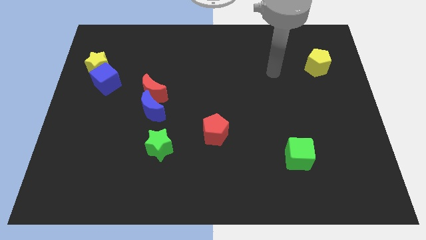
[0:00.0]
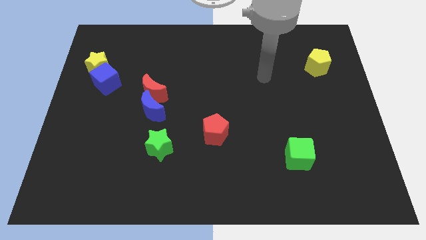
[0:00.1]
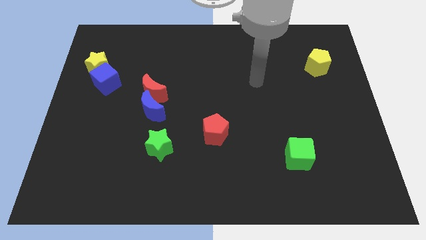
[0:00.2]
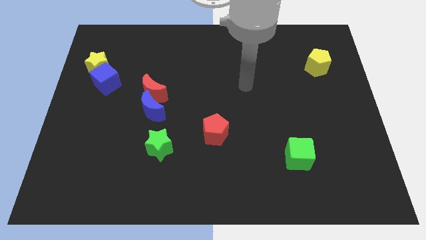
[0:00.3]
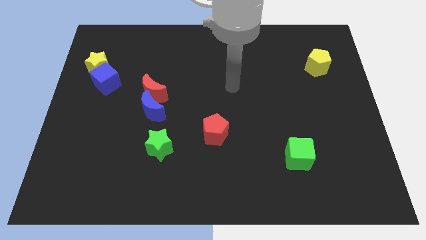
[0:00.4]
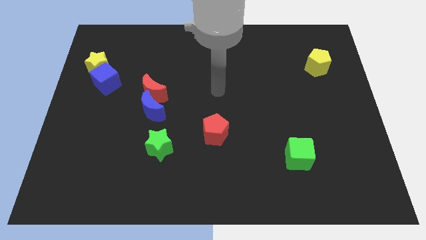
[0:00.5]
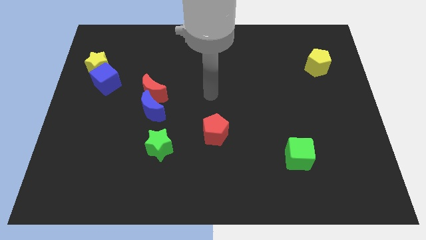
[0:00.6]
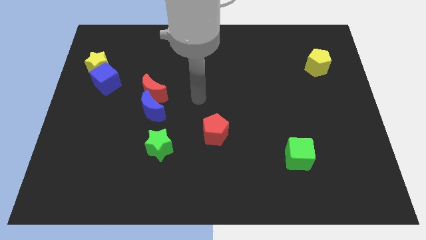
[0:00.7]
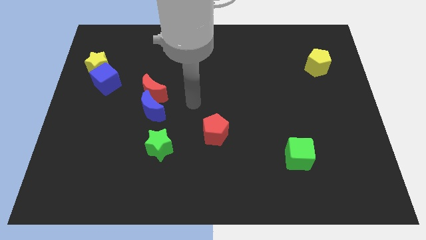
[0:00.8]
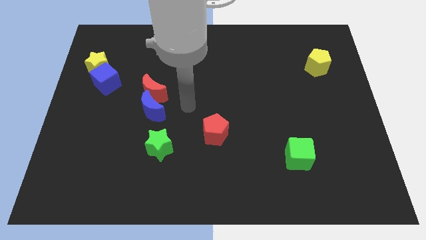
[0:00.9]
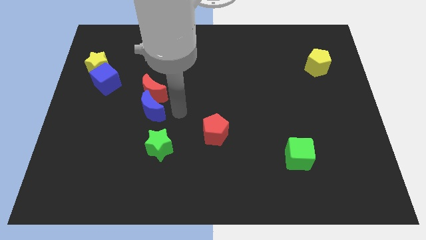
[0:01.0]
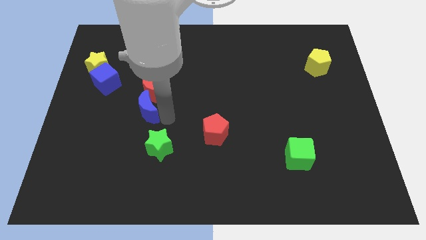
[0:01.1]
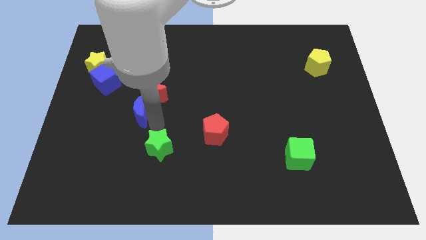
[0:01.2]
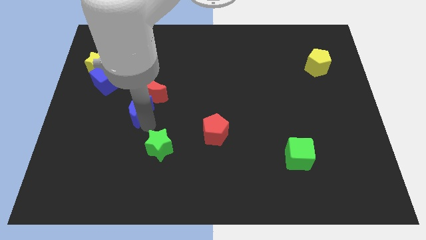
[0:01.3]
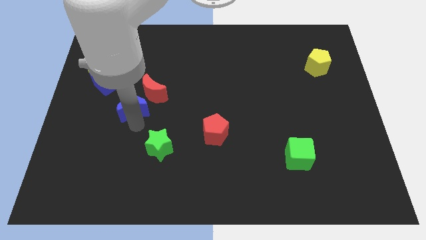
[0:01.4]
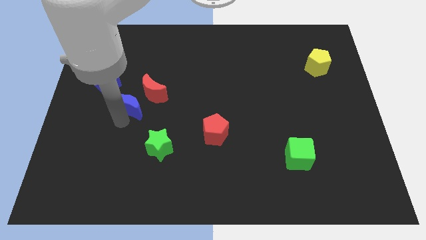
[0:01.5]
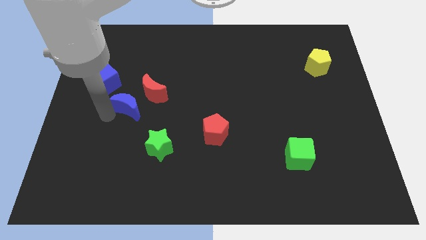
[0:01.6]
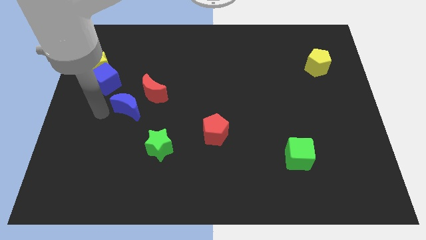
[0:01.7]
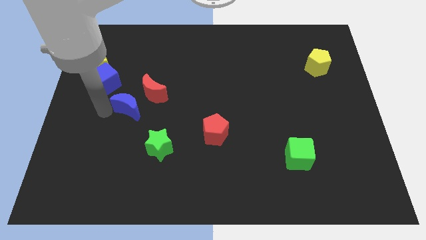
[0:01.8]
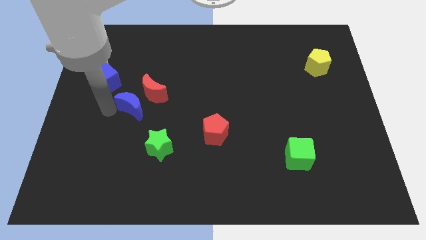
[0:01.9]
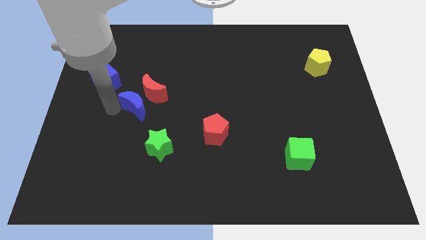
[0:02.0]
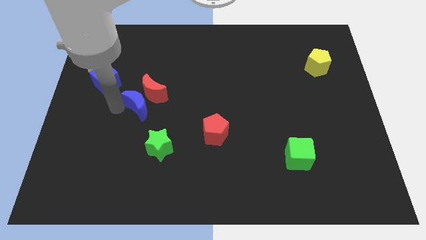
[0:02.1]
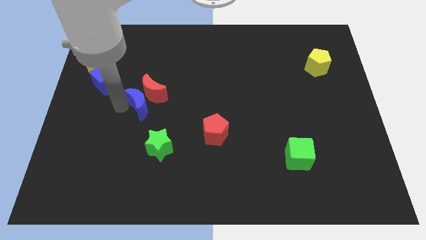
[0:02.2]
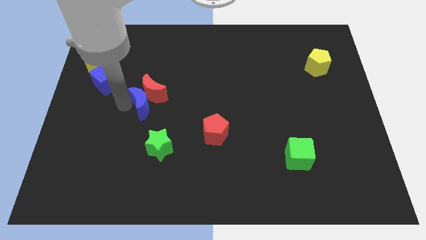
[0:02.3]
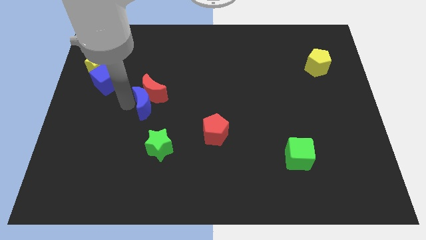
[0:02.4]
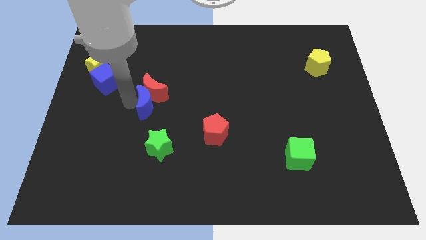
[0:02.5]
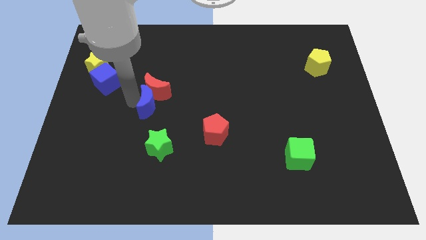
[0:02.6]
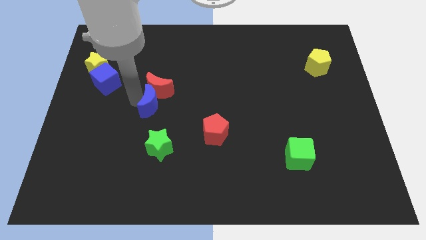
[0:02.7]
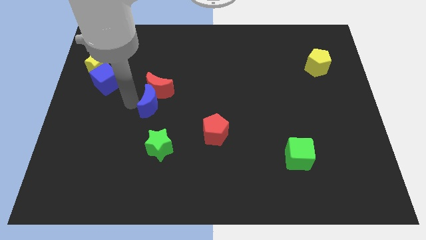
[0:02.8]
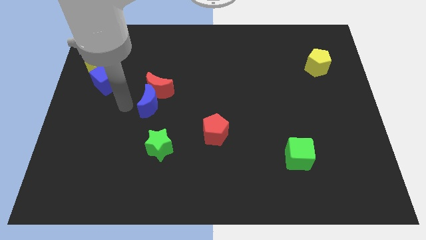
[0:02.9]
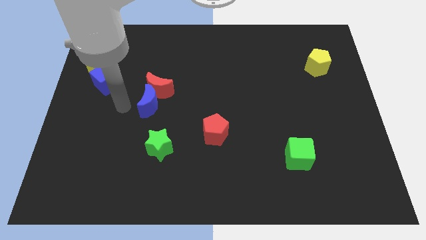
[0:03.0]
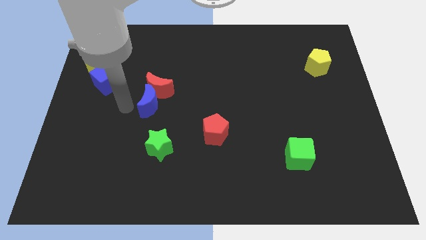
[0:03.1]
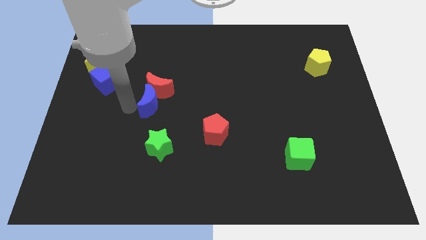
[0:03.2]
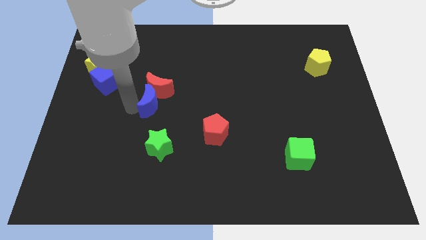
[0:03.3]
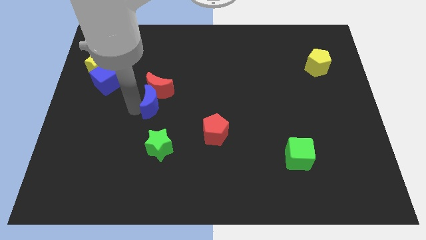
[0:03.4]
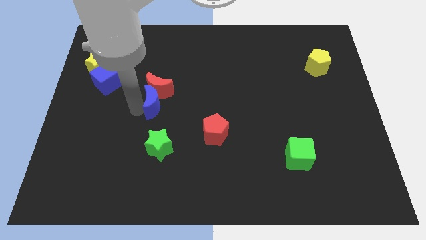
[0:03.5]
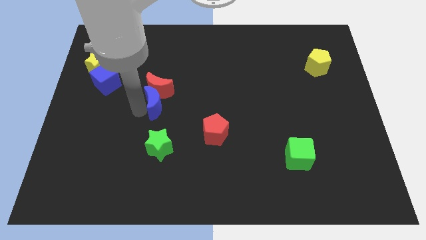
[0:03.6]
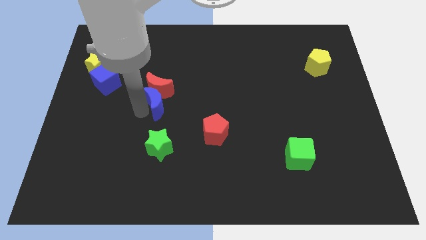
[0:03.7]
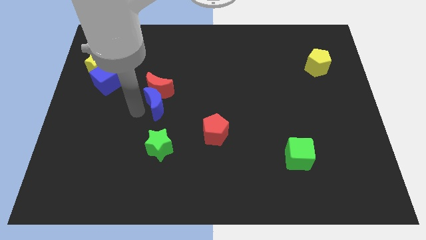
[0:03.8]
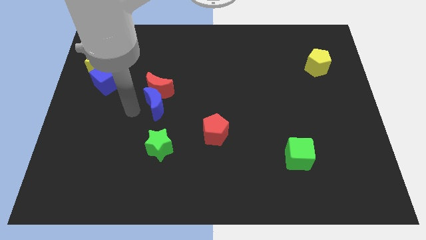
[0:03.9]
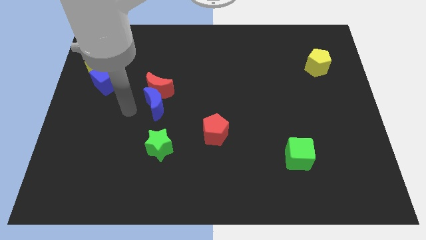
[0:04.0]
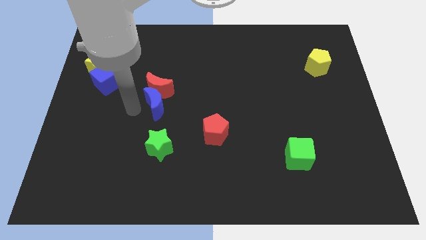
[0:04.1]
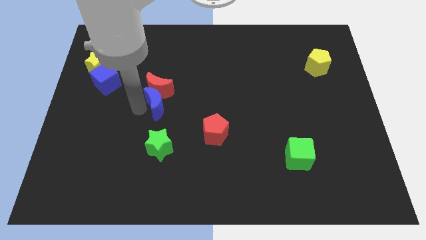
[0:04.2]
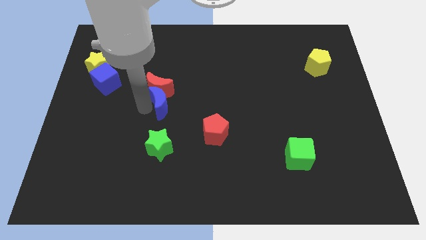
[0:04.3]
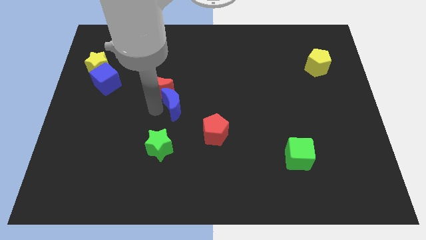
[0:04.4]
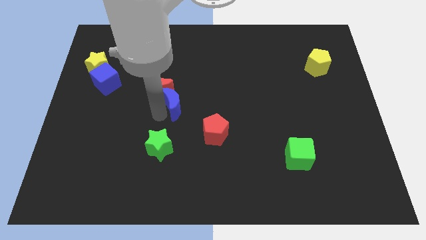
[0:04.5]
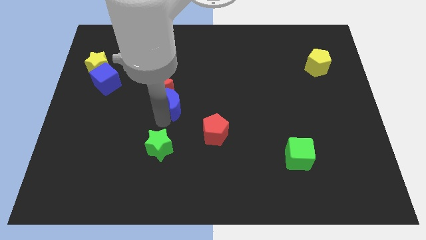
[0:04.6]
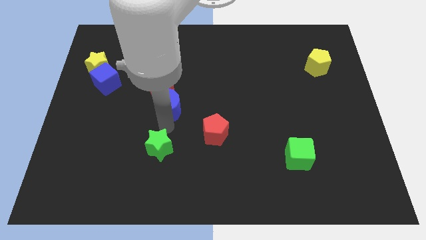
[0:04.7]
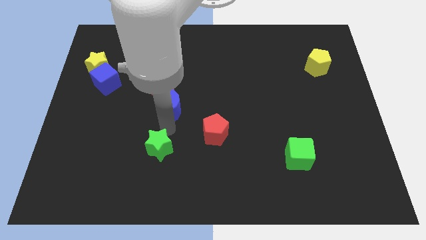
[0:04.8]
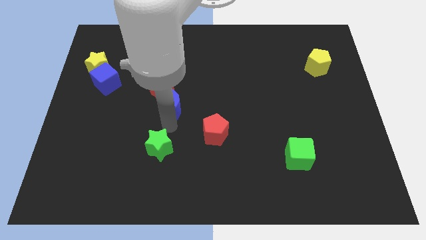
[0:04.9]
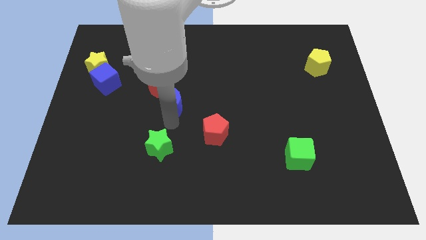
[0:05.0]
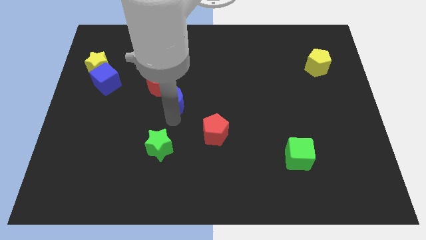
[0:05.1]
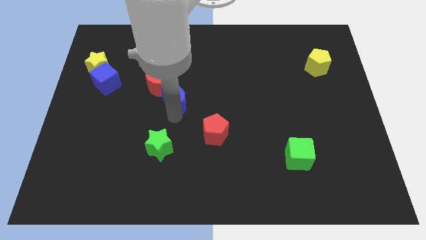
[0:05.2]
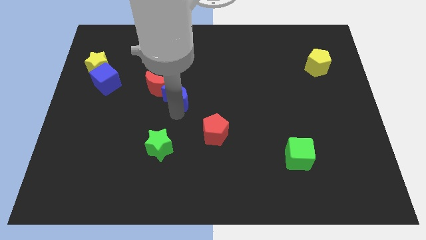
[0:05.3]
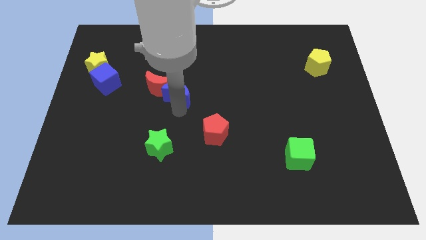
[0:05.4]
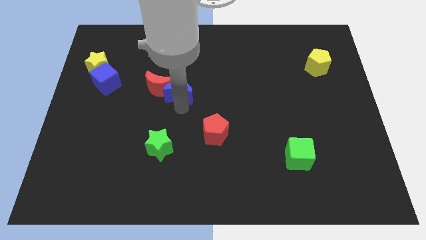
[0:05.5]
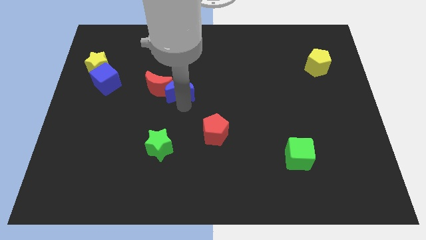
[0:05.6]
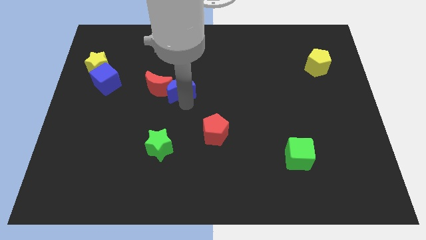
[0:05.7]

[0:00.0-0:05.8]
slide the blue moon to the top right of the red moon

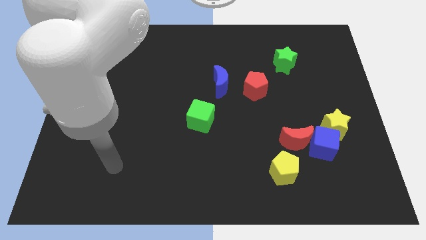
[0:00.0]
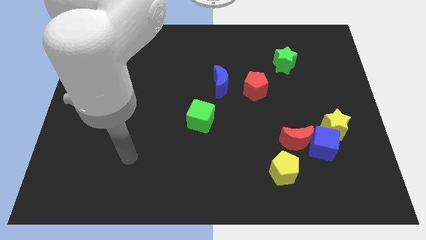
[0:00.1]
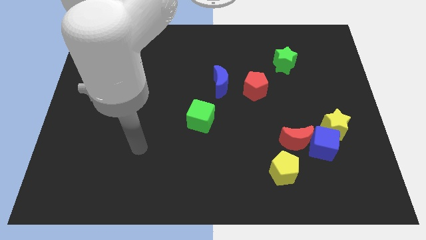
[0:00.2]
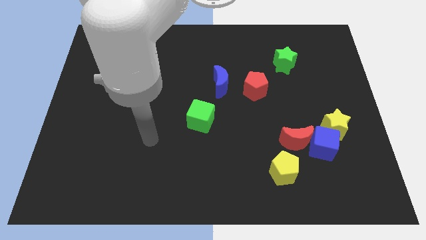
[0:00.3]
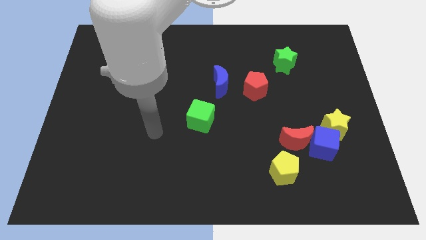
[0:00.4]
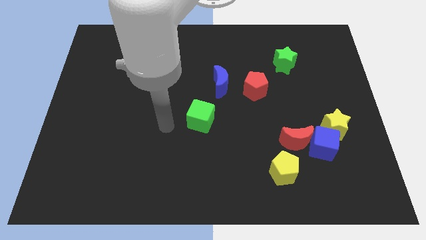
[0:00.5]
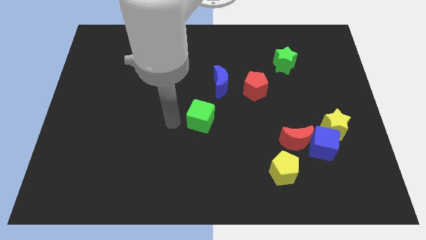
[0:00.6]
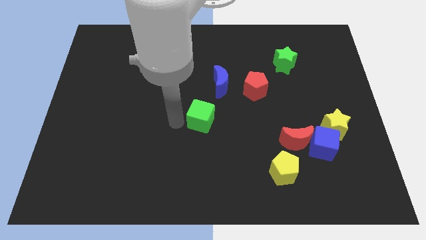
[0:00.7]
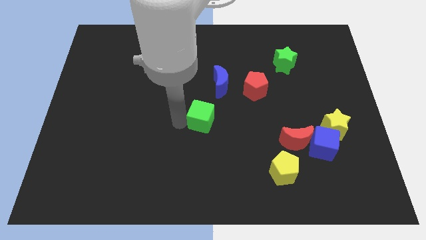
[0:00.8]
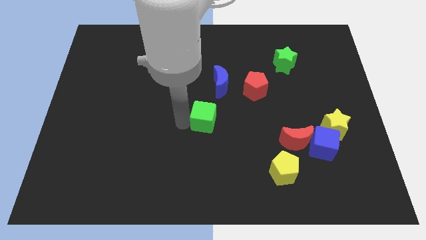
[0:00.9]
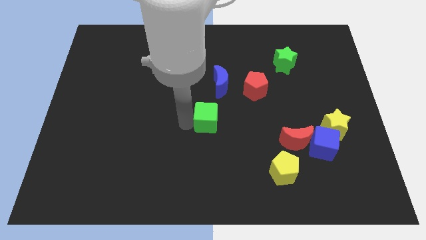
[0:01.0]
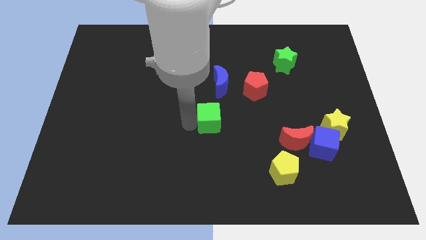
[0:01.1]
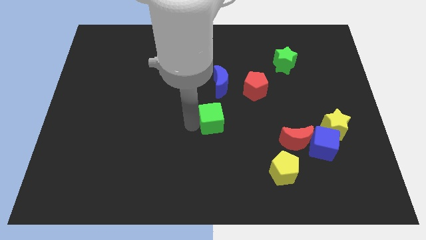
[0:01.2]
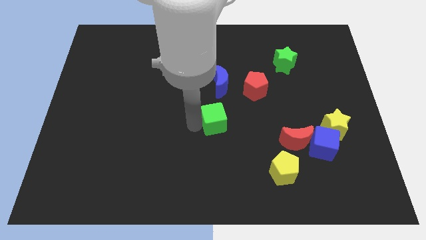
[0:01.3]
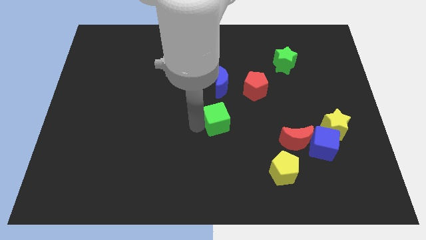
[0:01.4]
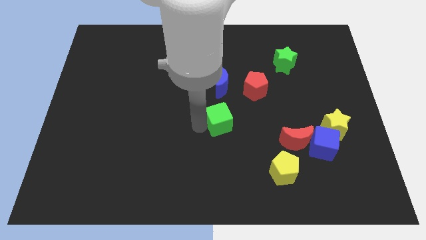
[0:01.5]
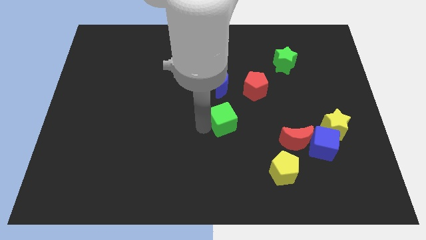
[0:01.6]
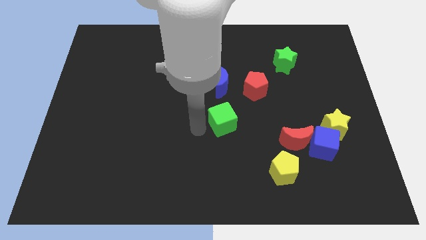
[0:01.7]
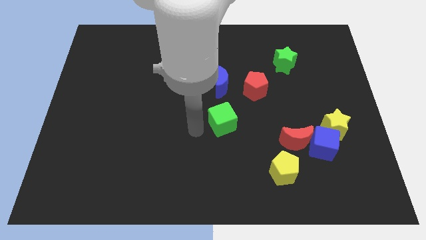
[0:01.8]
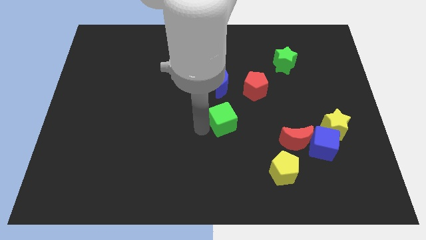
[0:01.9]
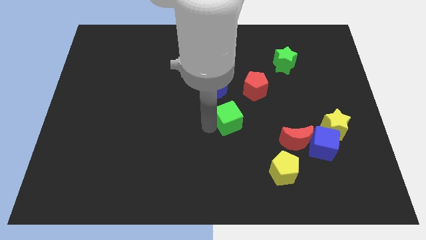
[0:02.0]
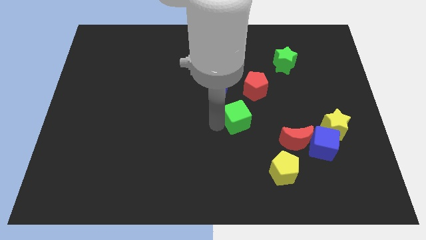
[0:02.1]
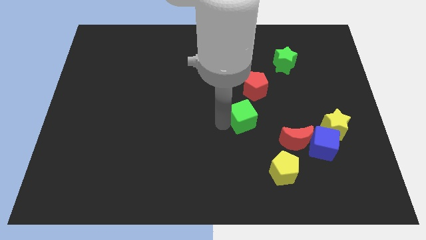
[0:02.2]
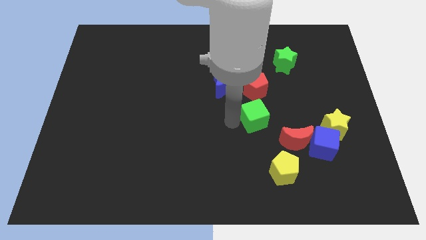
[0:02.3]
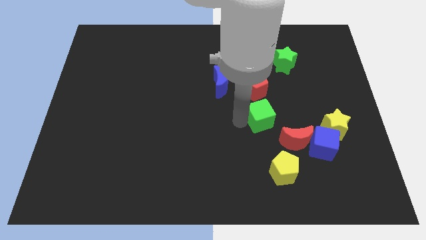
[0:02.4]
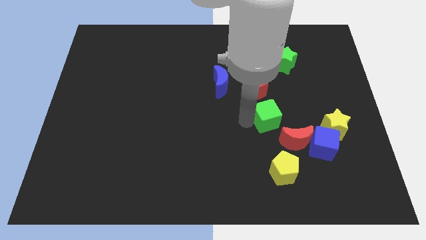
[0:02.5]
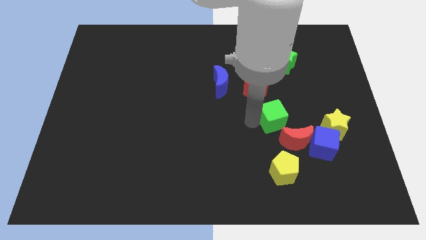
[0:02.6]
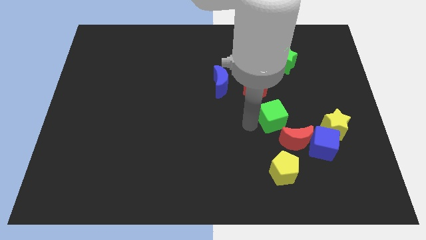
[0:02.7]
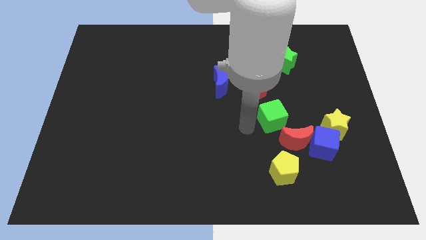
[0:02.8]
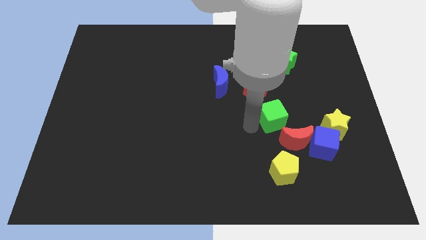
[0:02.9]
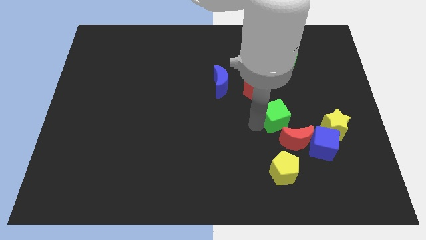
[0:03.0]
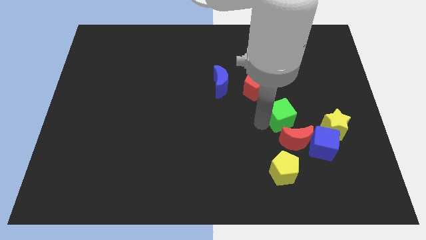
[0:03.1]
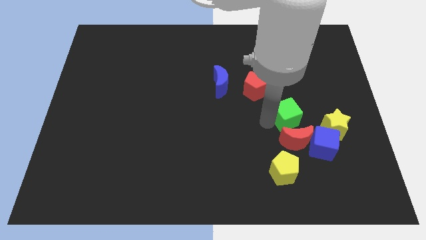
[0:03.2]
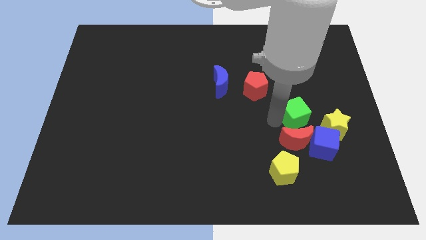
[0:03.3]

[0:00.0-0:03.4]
move the green cube to the top left of the yellow star
